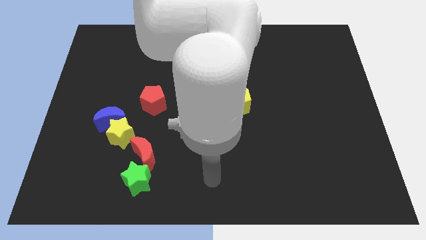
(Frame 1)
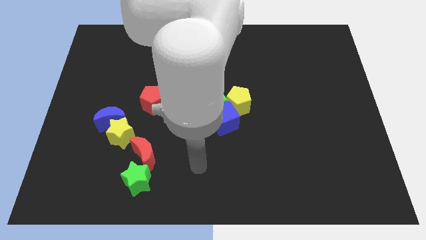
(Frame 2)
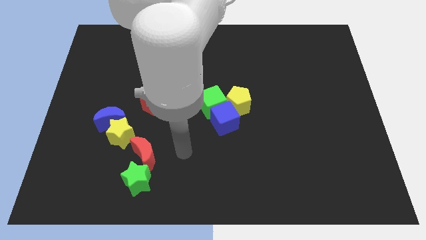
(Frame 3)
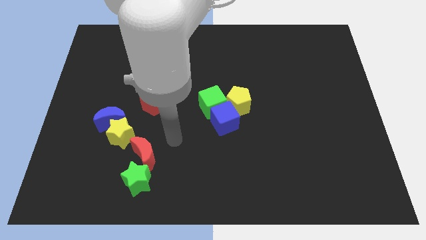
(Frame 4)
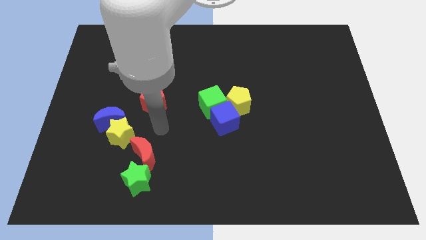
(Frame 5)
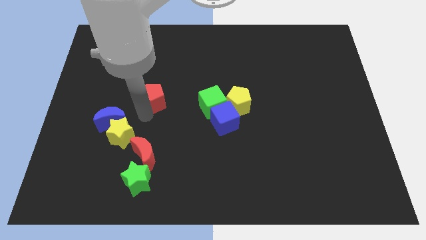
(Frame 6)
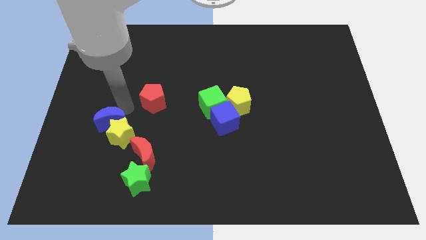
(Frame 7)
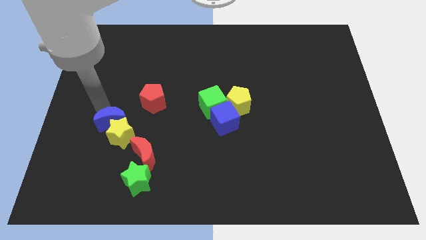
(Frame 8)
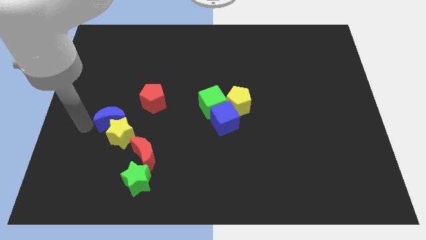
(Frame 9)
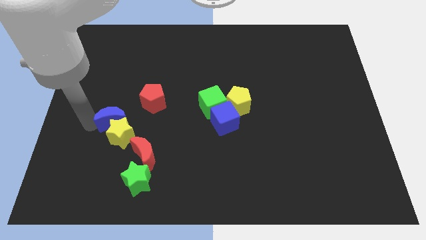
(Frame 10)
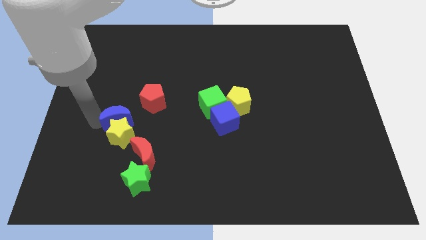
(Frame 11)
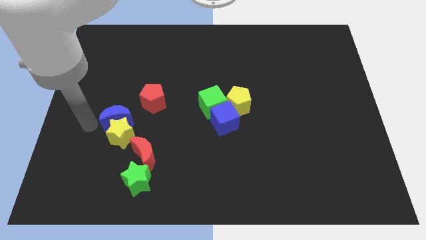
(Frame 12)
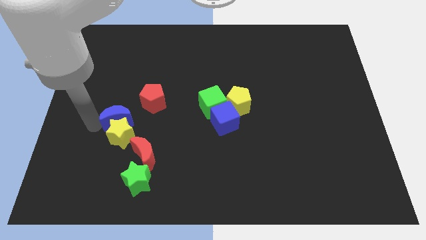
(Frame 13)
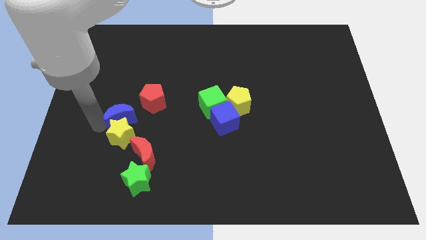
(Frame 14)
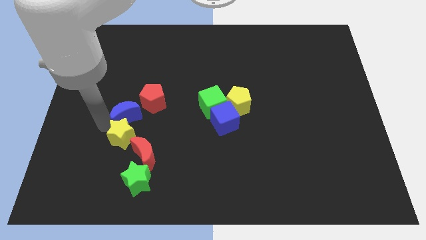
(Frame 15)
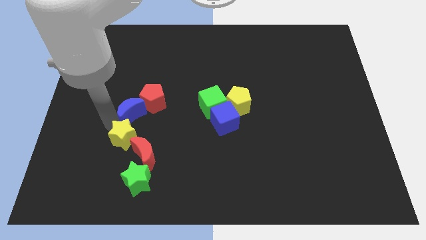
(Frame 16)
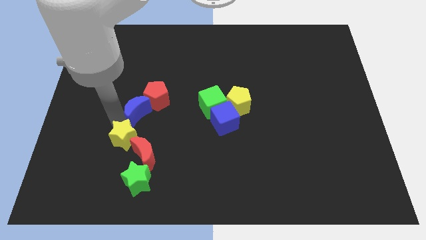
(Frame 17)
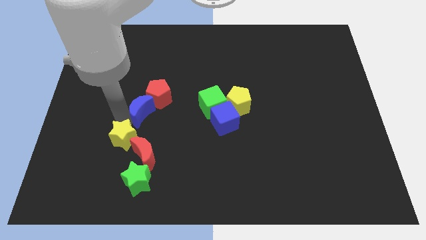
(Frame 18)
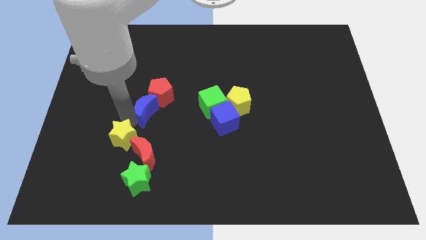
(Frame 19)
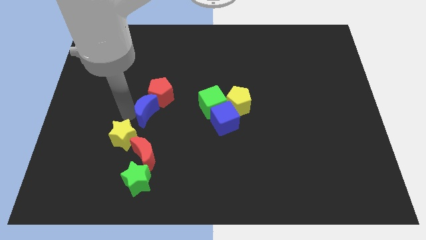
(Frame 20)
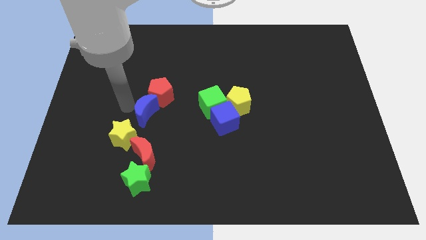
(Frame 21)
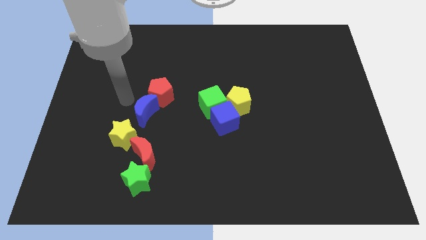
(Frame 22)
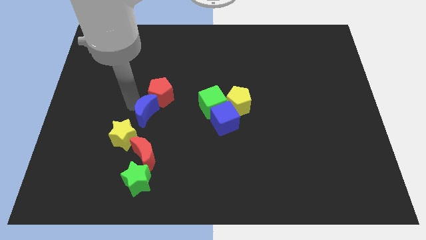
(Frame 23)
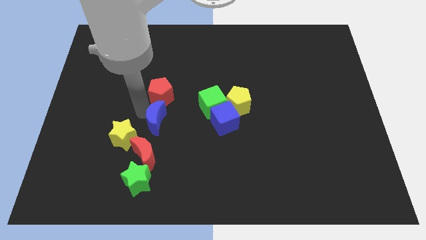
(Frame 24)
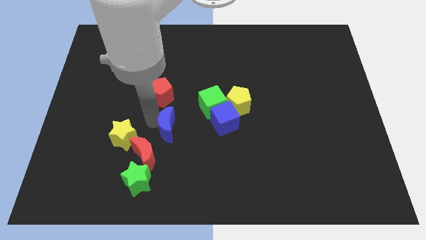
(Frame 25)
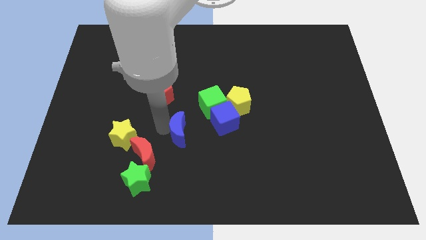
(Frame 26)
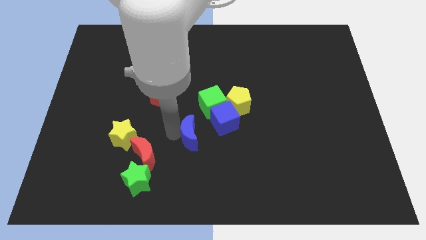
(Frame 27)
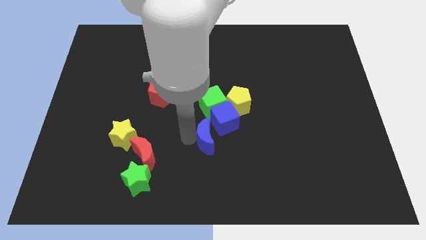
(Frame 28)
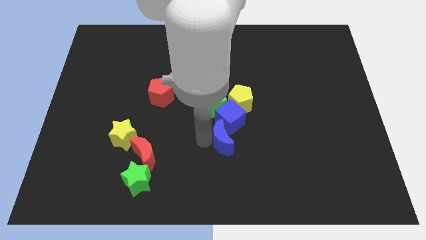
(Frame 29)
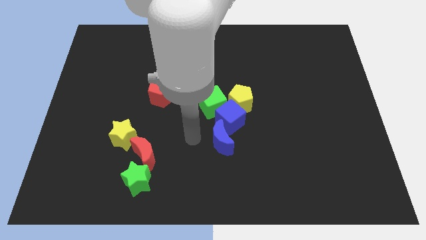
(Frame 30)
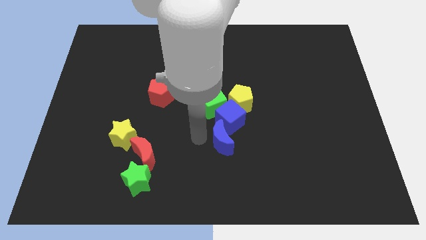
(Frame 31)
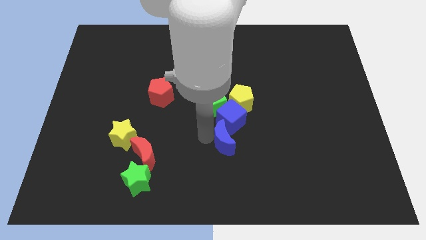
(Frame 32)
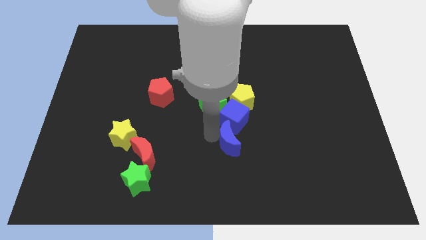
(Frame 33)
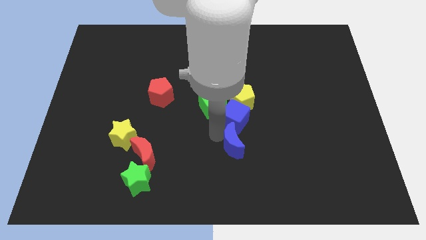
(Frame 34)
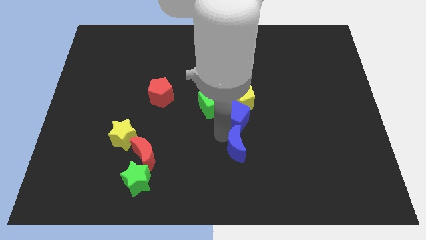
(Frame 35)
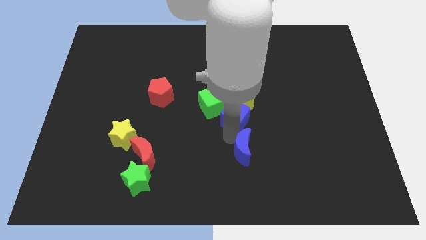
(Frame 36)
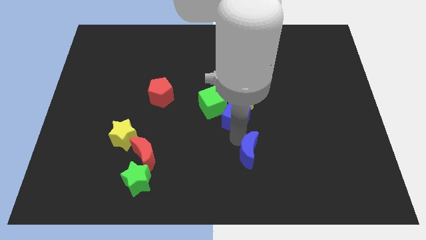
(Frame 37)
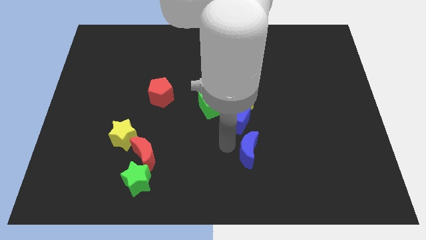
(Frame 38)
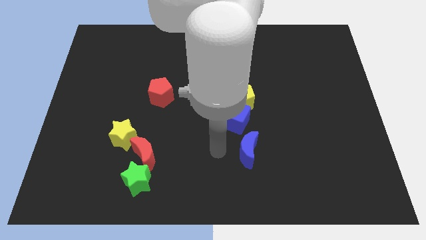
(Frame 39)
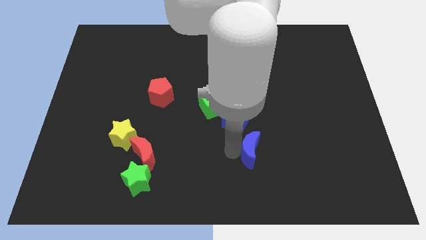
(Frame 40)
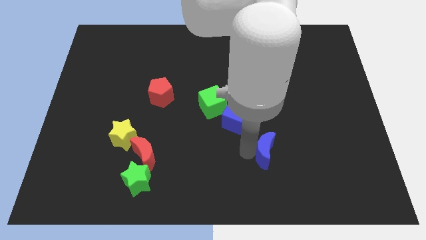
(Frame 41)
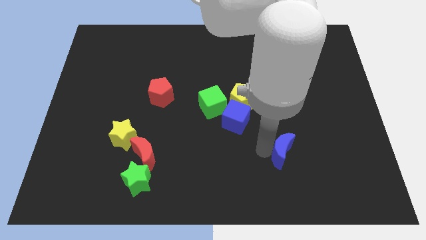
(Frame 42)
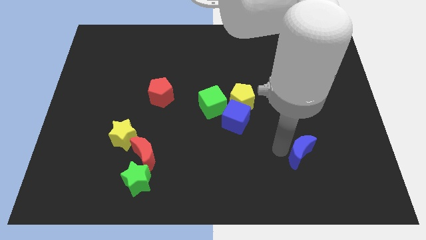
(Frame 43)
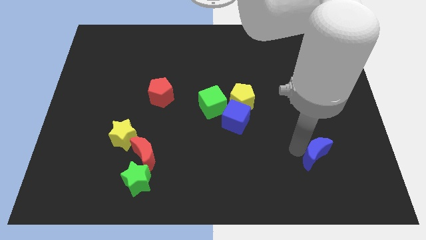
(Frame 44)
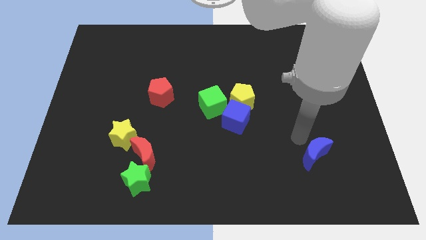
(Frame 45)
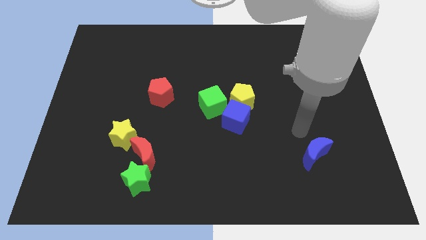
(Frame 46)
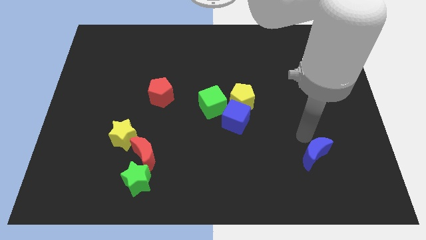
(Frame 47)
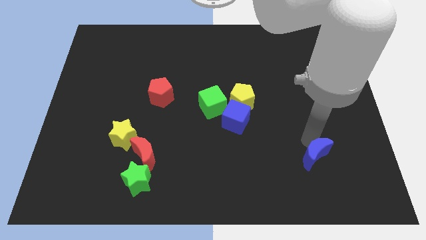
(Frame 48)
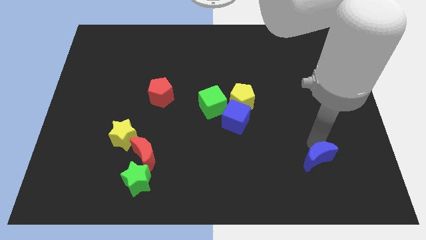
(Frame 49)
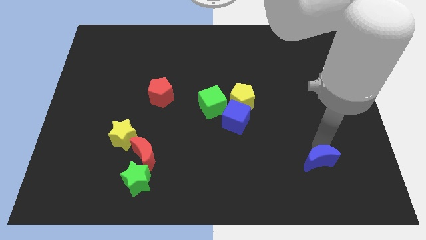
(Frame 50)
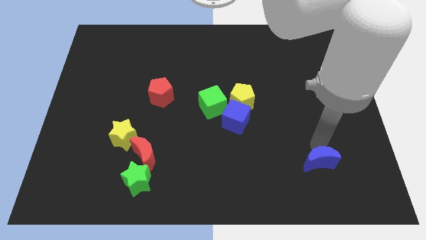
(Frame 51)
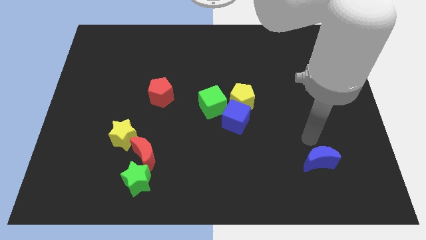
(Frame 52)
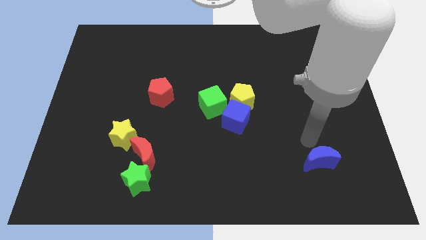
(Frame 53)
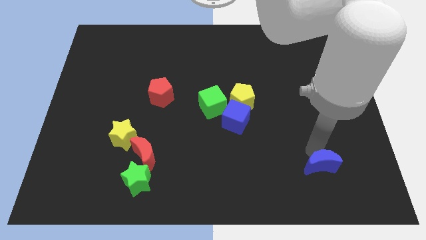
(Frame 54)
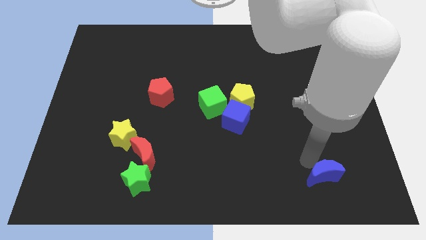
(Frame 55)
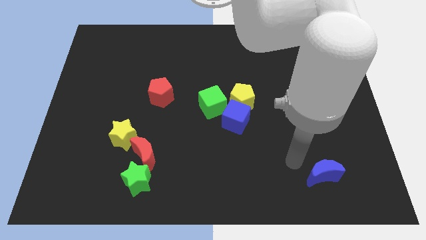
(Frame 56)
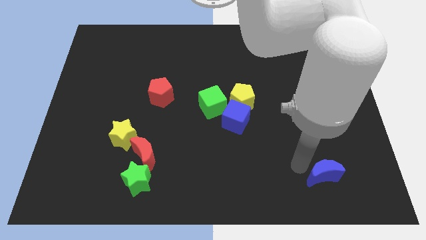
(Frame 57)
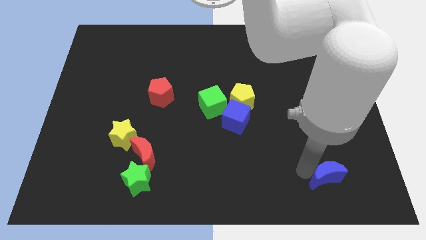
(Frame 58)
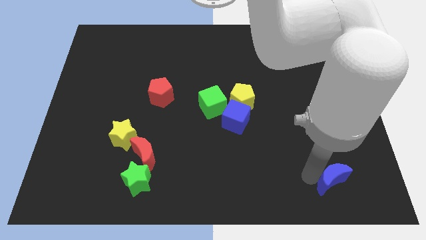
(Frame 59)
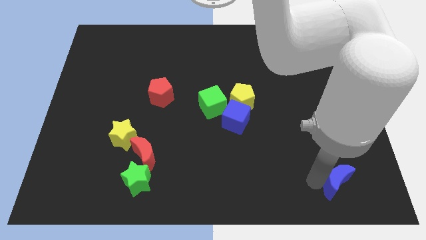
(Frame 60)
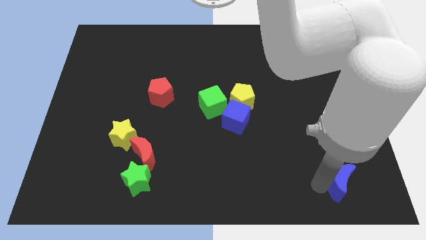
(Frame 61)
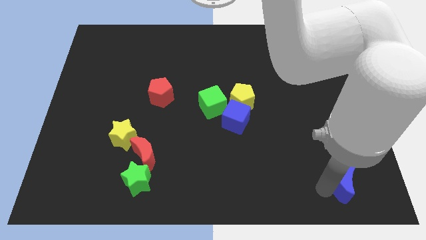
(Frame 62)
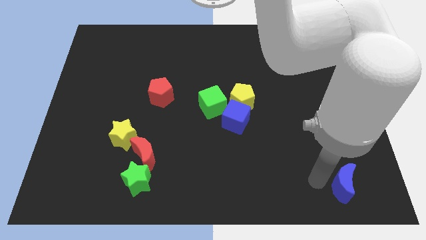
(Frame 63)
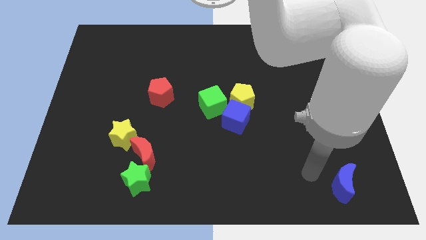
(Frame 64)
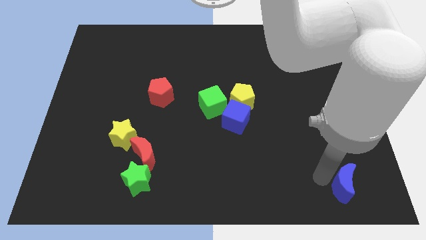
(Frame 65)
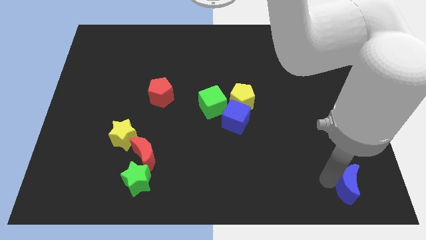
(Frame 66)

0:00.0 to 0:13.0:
slide the blue moon to the bottom right
